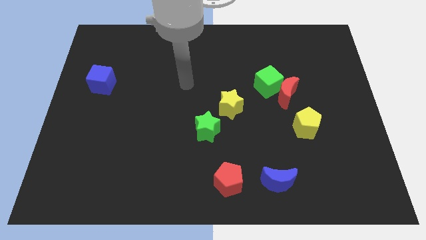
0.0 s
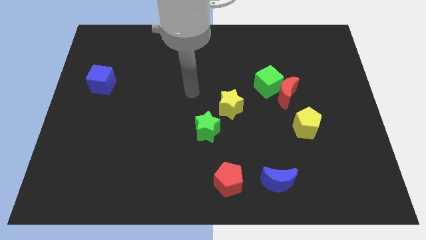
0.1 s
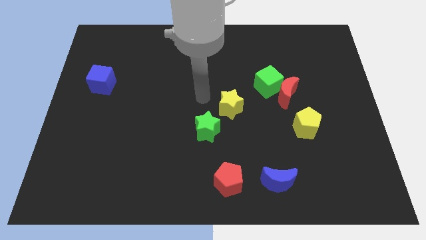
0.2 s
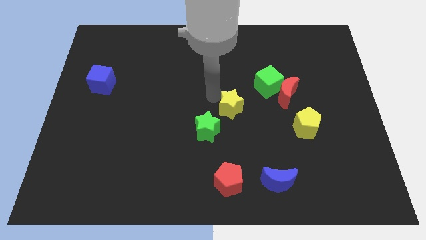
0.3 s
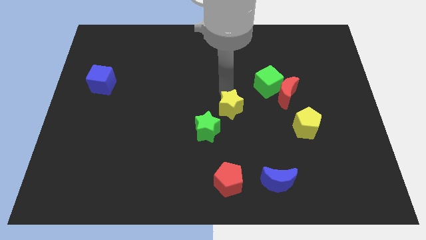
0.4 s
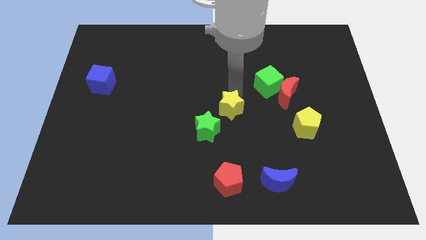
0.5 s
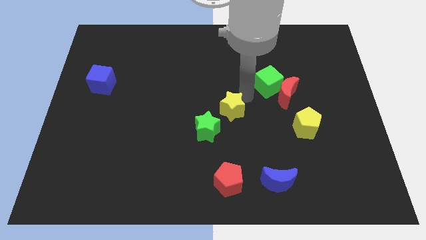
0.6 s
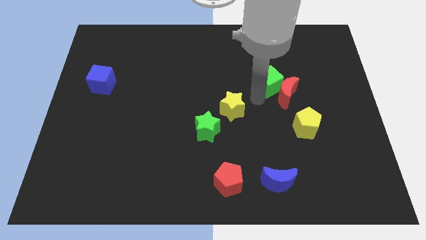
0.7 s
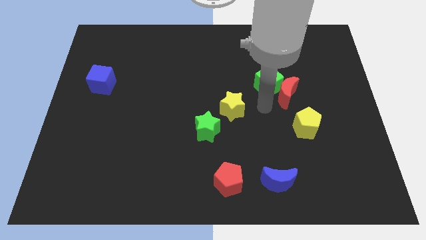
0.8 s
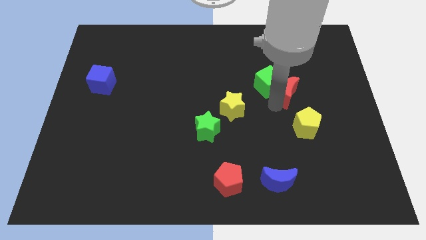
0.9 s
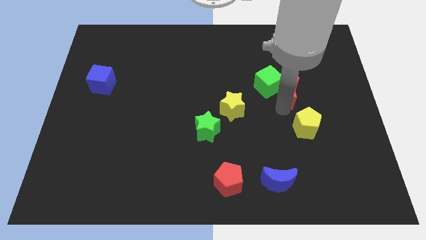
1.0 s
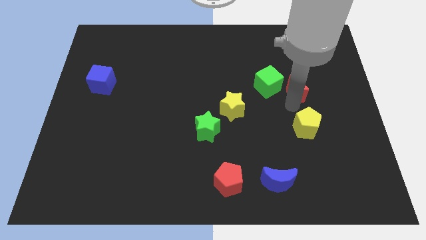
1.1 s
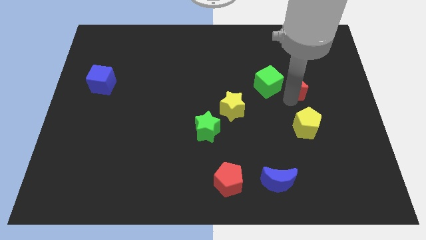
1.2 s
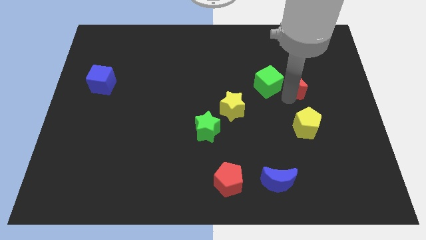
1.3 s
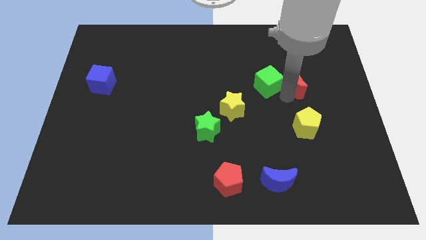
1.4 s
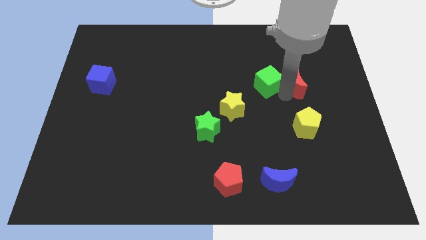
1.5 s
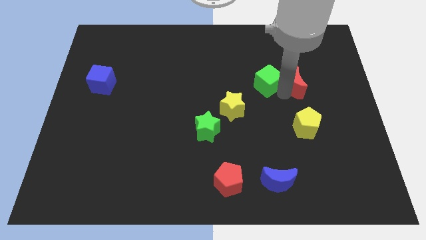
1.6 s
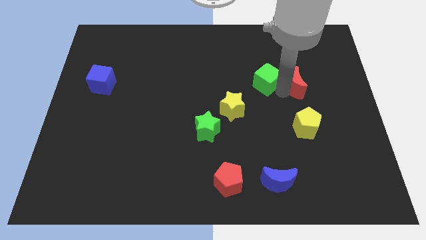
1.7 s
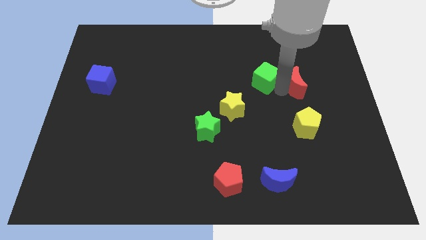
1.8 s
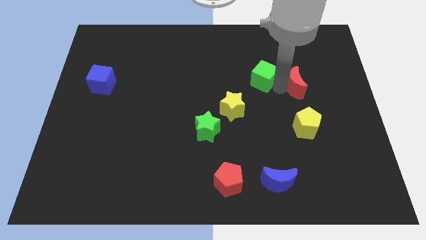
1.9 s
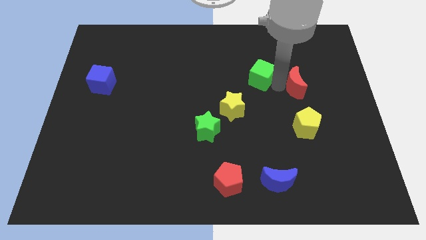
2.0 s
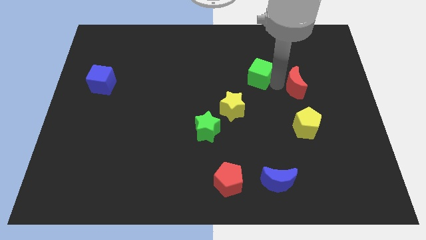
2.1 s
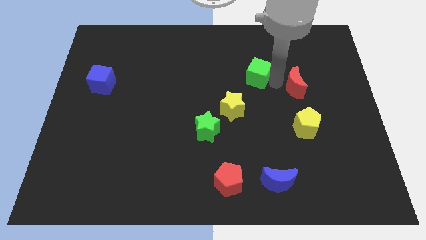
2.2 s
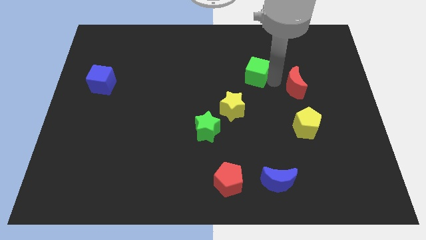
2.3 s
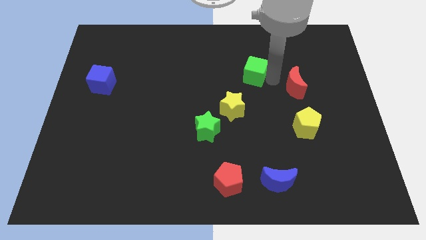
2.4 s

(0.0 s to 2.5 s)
separate the green cube from the red moon

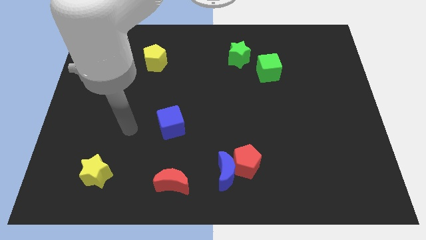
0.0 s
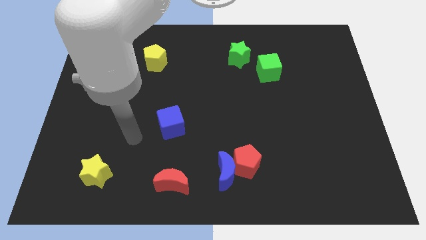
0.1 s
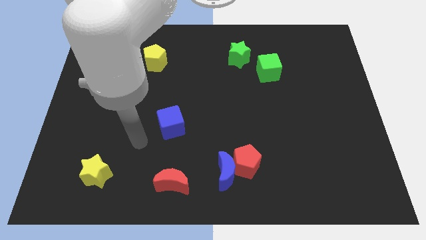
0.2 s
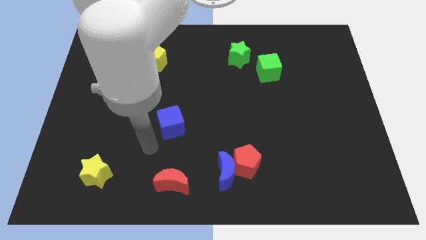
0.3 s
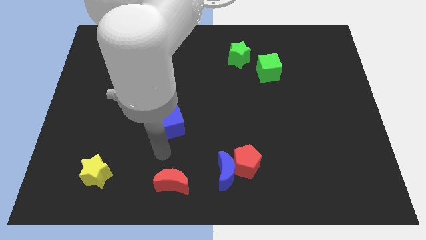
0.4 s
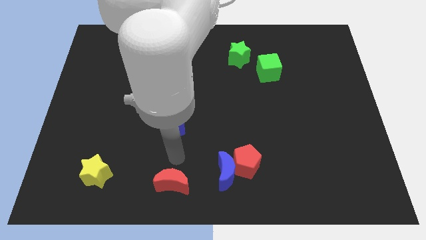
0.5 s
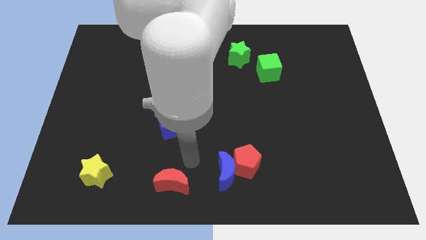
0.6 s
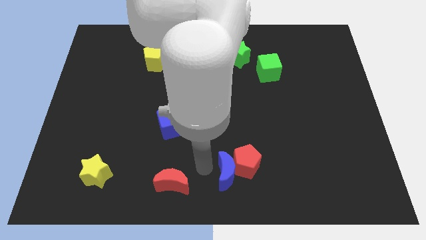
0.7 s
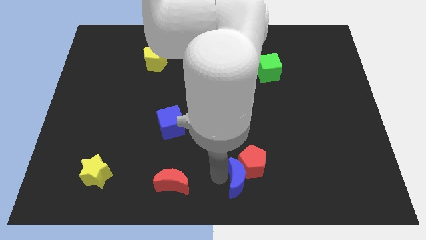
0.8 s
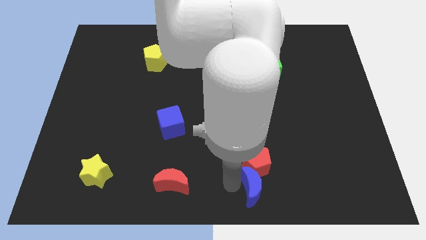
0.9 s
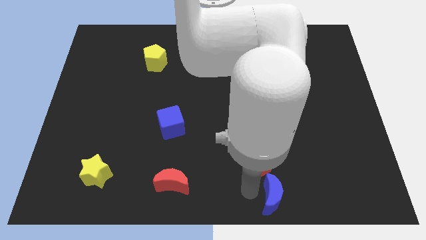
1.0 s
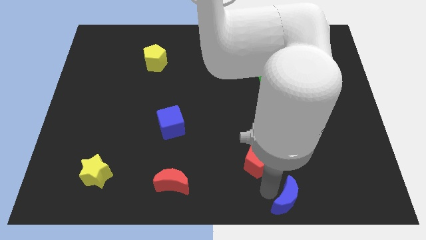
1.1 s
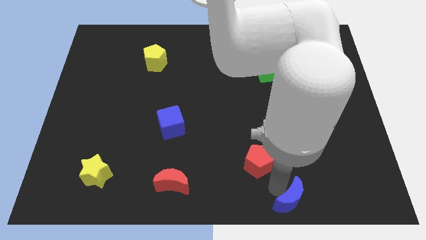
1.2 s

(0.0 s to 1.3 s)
move the red pentagon away from the blue moon

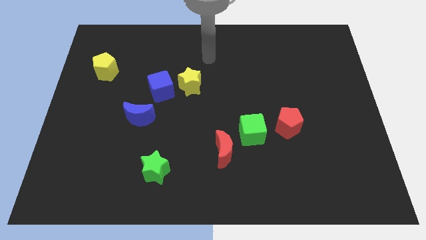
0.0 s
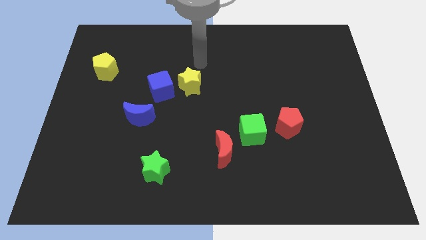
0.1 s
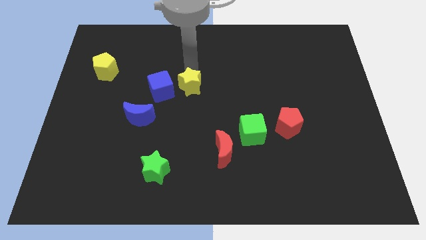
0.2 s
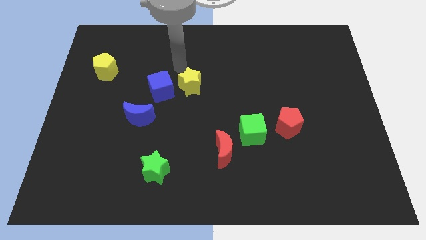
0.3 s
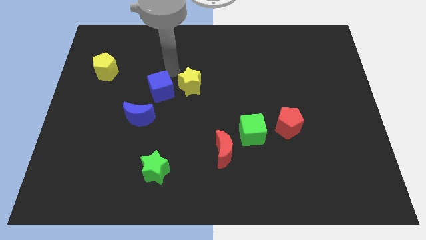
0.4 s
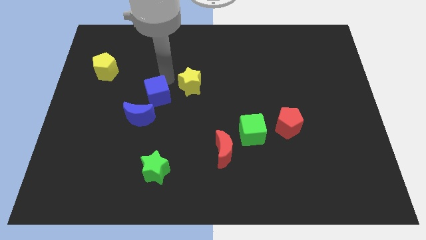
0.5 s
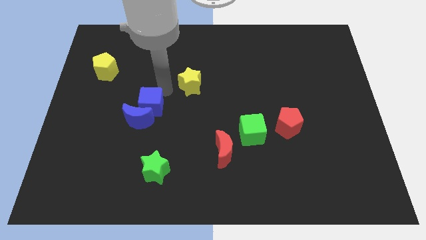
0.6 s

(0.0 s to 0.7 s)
separate the yellow star from the blue cube

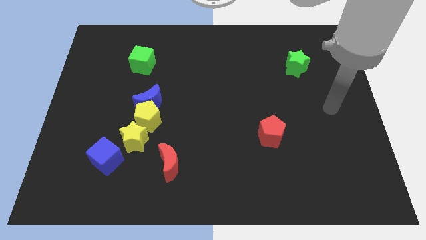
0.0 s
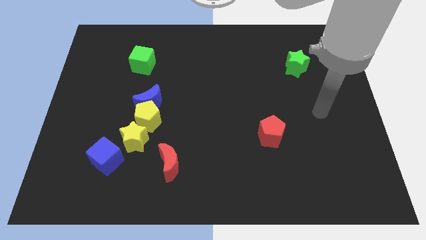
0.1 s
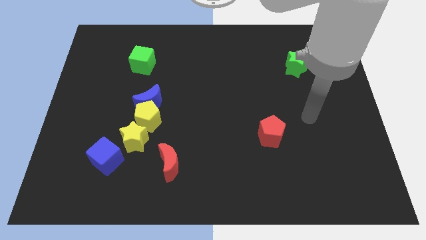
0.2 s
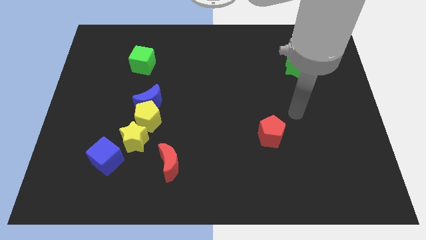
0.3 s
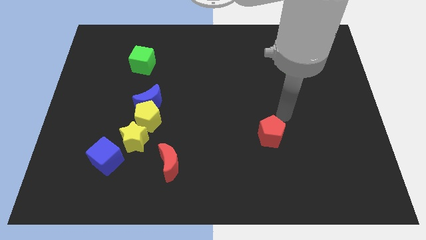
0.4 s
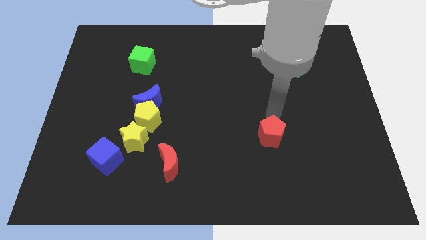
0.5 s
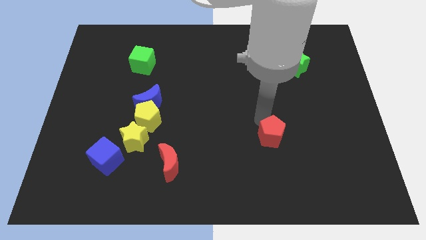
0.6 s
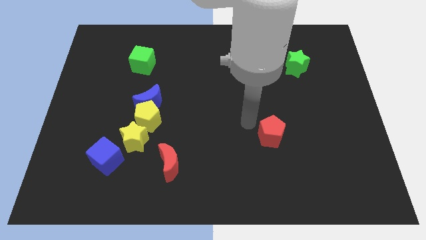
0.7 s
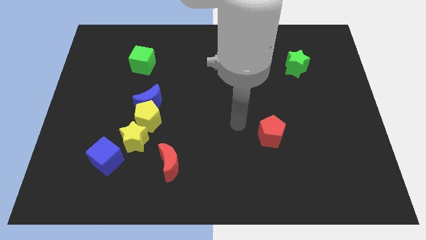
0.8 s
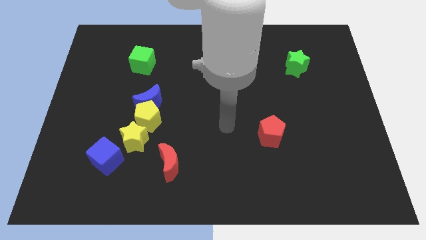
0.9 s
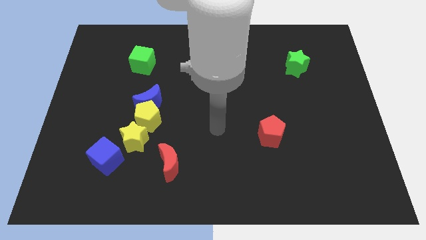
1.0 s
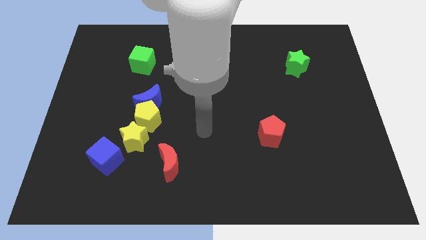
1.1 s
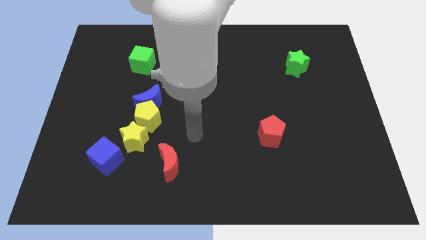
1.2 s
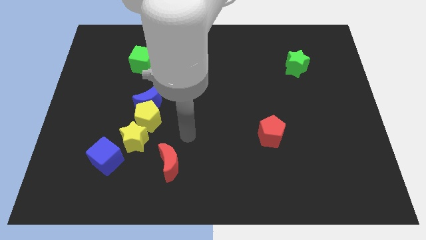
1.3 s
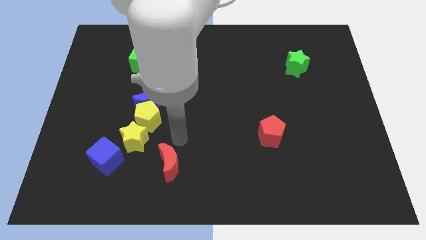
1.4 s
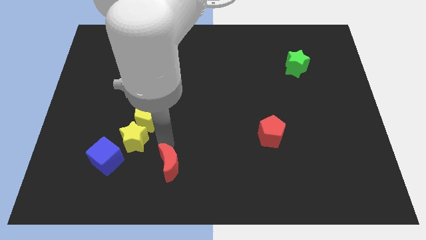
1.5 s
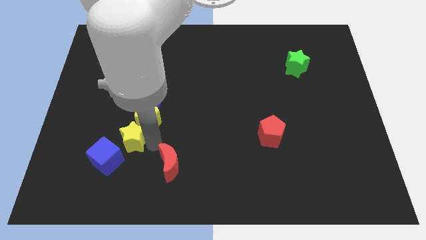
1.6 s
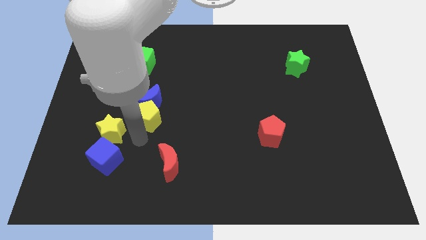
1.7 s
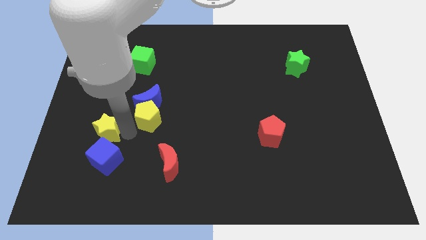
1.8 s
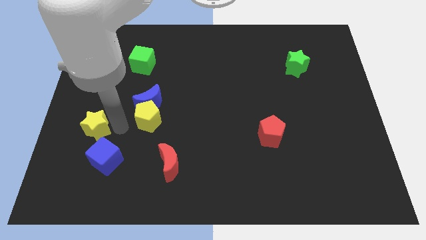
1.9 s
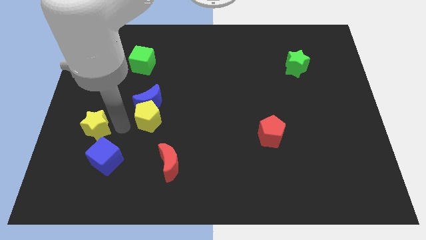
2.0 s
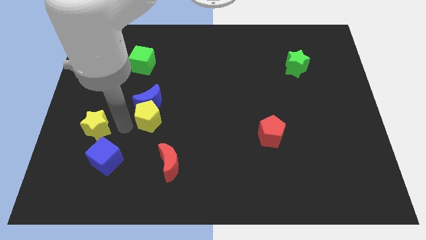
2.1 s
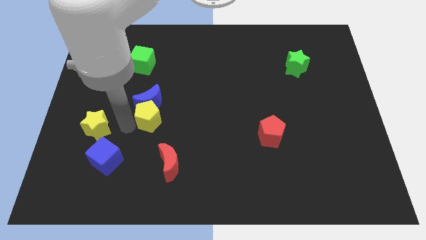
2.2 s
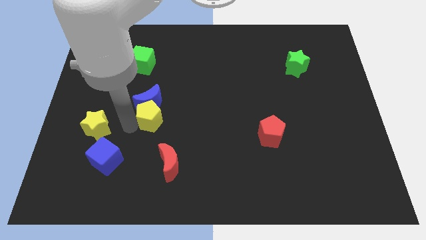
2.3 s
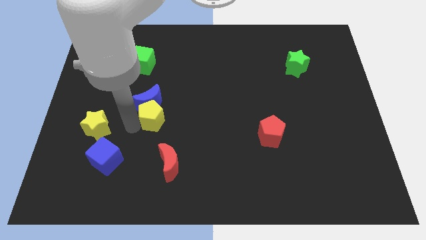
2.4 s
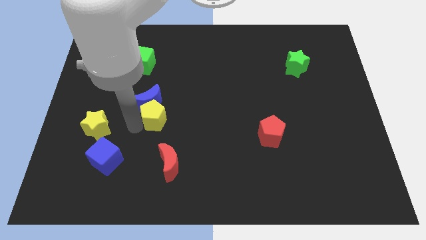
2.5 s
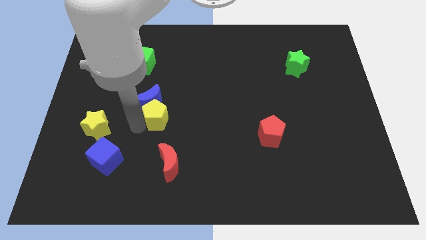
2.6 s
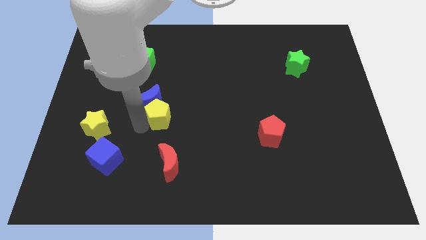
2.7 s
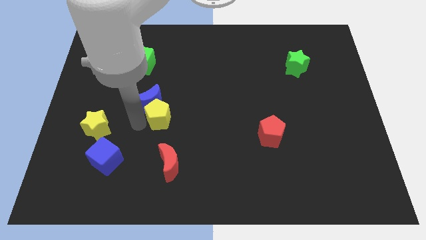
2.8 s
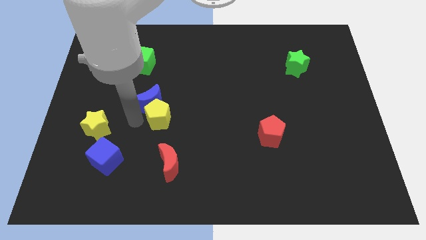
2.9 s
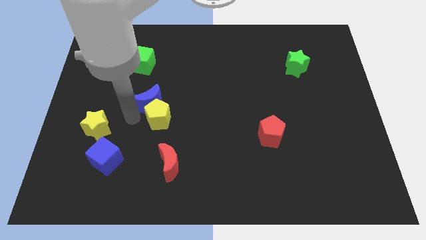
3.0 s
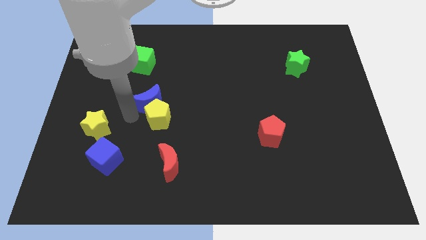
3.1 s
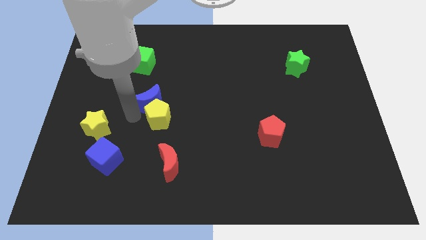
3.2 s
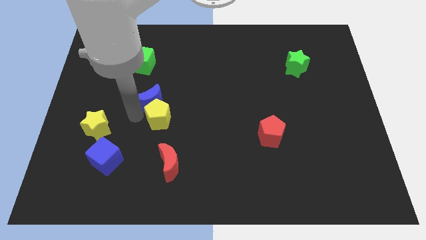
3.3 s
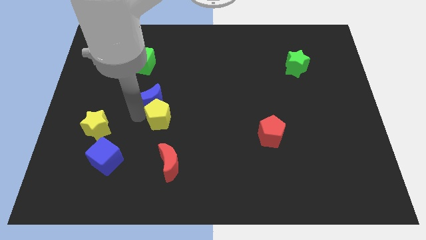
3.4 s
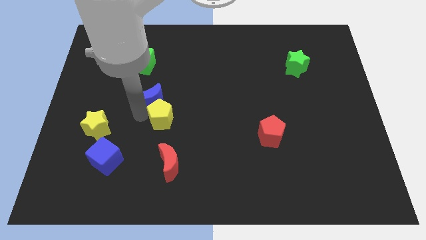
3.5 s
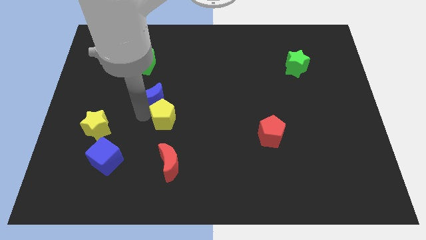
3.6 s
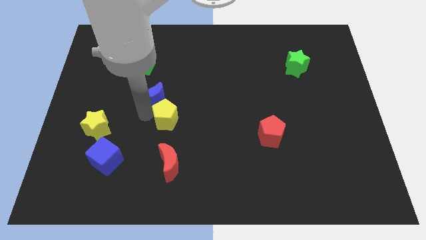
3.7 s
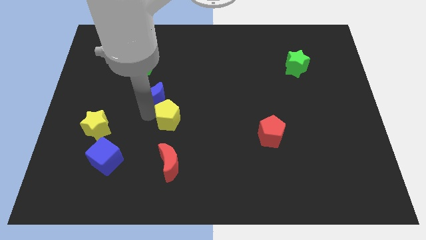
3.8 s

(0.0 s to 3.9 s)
separate the yellow pentagon from the blue moon and yellow star

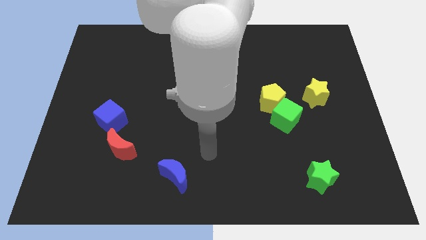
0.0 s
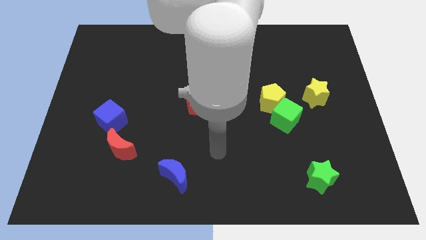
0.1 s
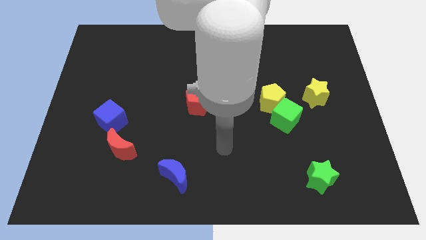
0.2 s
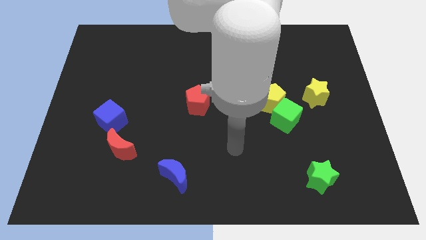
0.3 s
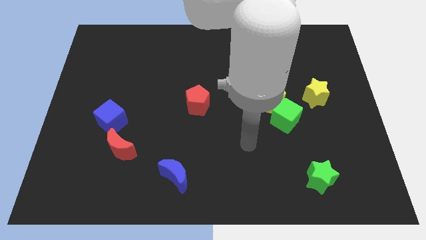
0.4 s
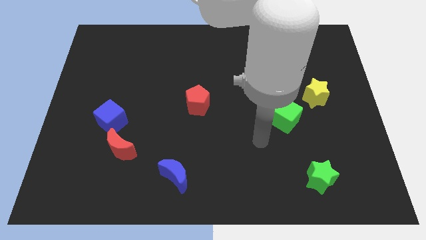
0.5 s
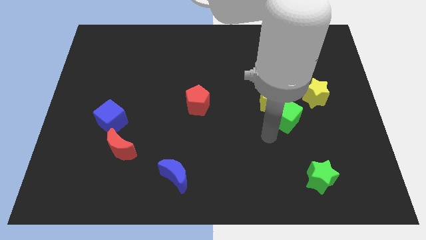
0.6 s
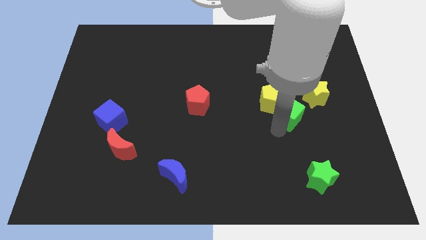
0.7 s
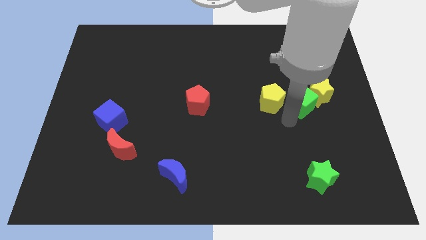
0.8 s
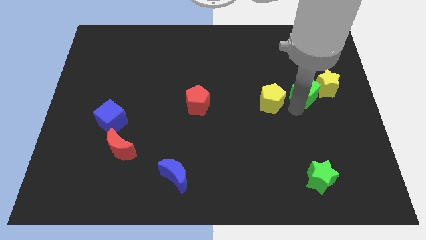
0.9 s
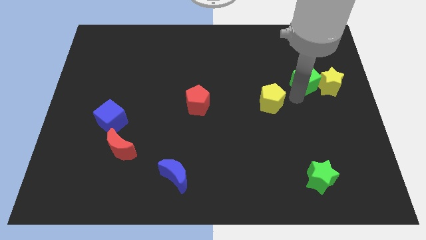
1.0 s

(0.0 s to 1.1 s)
move the yellow pentagon away from the green cube
